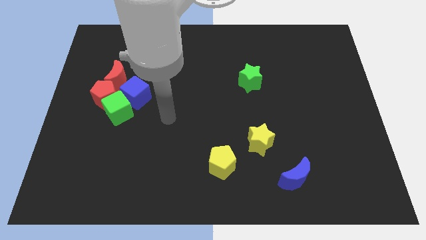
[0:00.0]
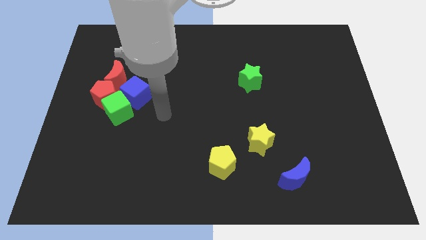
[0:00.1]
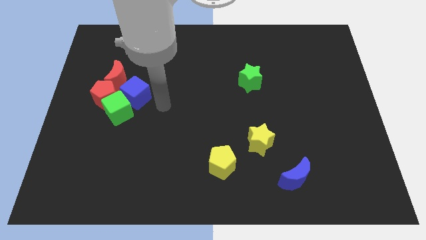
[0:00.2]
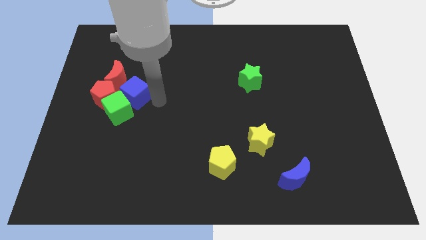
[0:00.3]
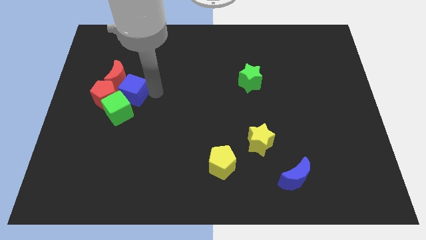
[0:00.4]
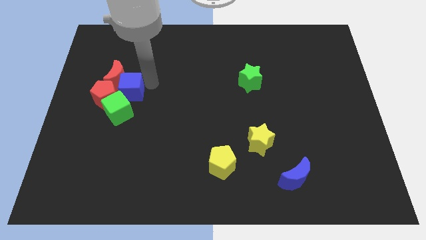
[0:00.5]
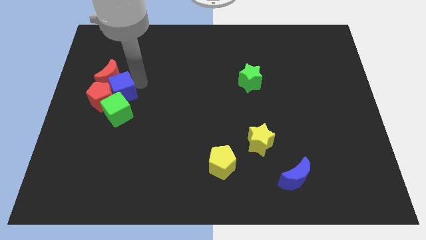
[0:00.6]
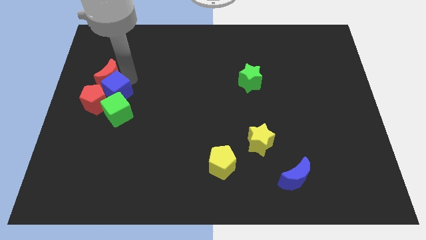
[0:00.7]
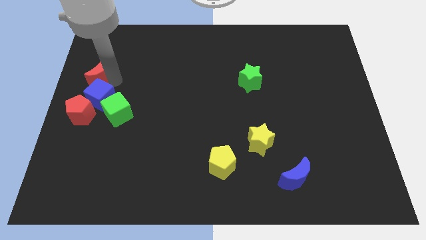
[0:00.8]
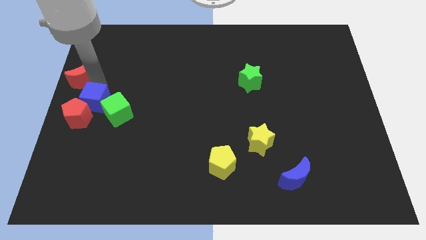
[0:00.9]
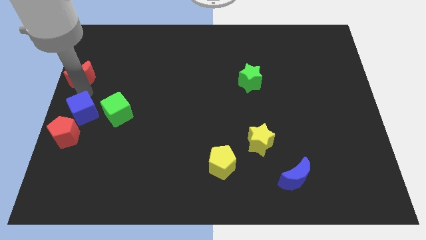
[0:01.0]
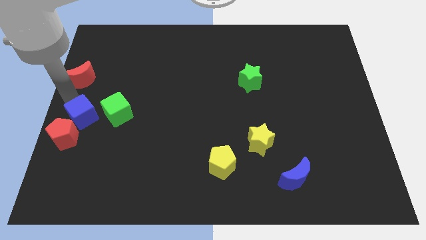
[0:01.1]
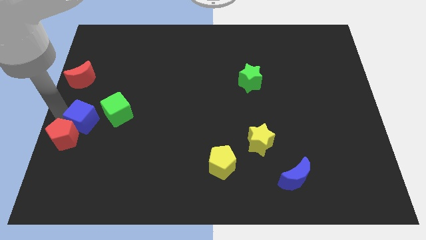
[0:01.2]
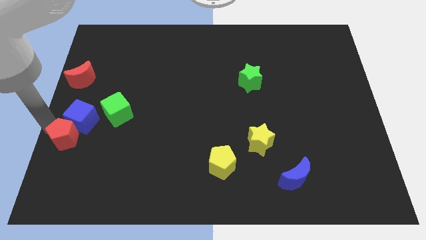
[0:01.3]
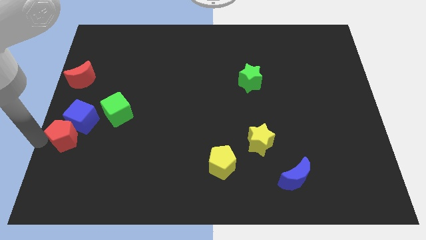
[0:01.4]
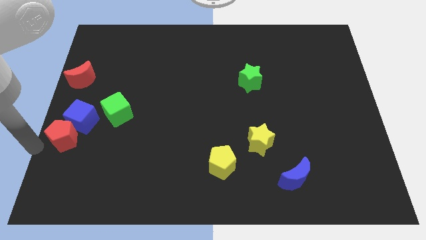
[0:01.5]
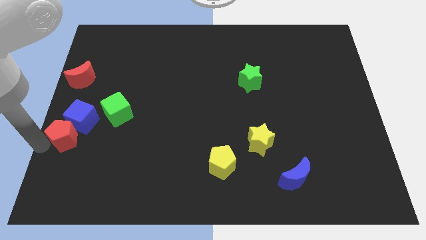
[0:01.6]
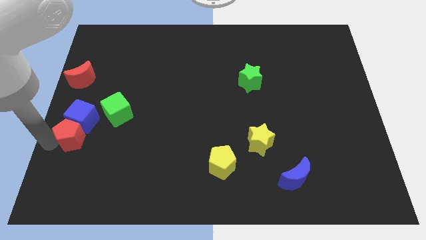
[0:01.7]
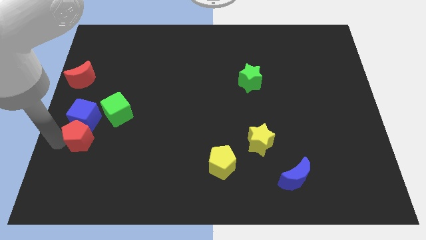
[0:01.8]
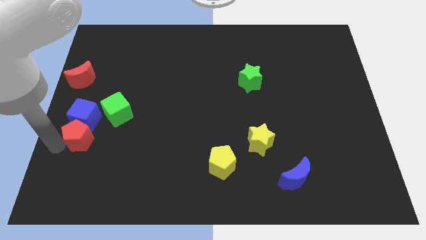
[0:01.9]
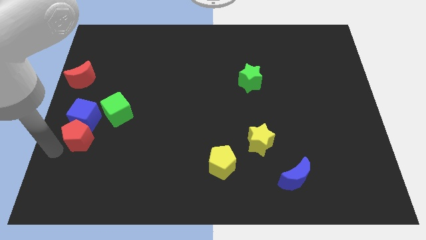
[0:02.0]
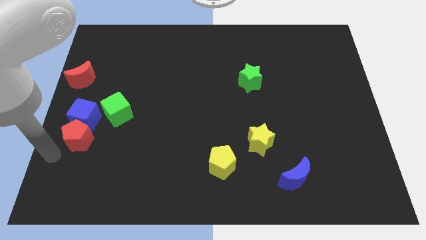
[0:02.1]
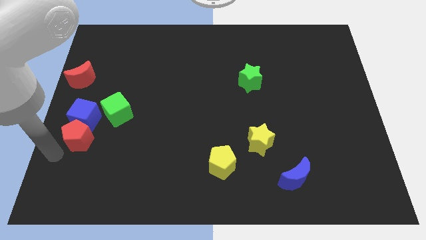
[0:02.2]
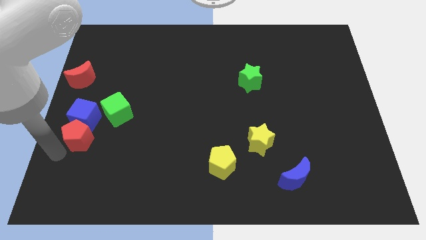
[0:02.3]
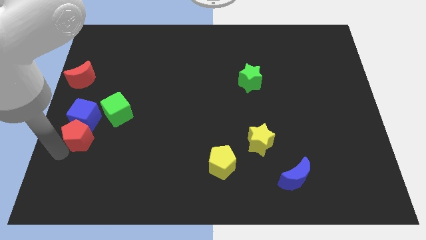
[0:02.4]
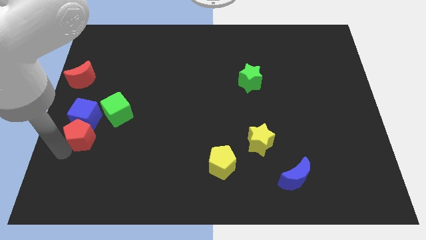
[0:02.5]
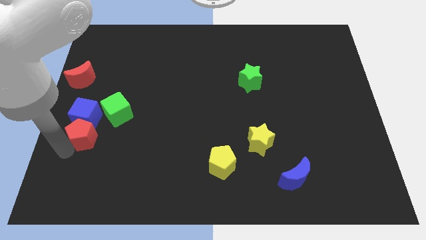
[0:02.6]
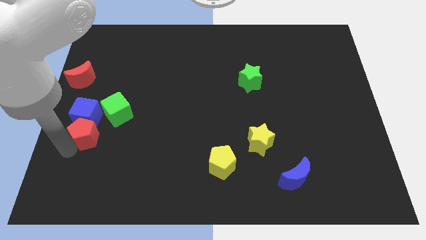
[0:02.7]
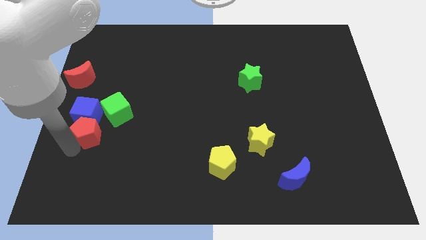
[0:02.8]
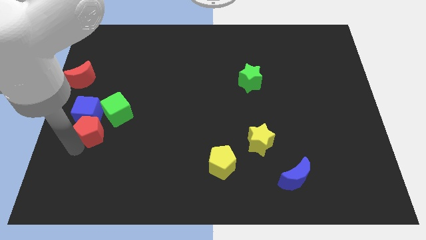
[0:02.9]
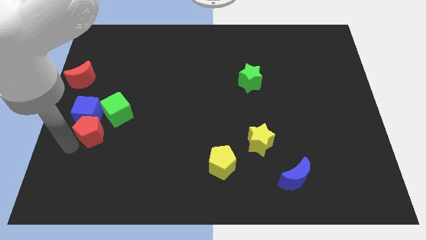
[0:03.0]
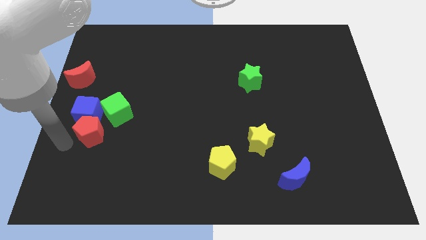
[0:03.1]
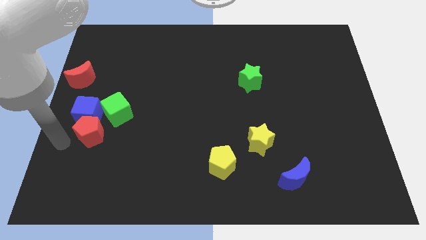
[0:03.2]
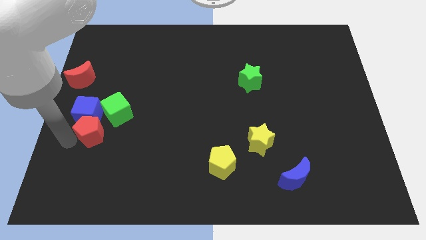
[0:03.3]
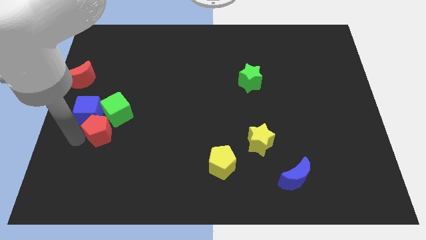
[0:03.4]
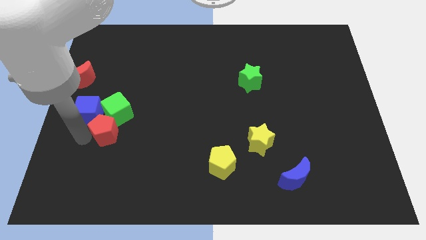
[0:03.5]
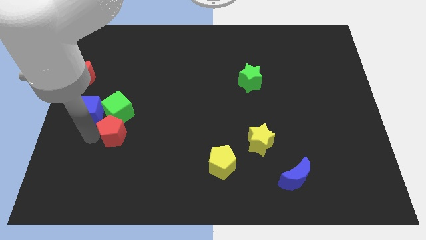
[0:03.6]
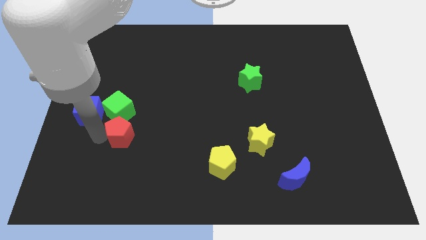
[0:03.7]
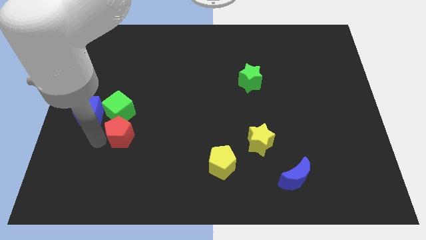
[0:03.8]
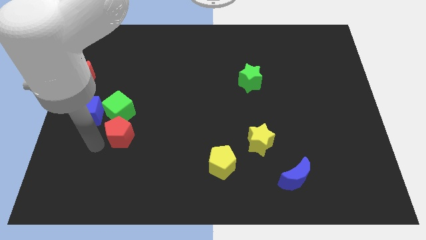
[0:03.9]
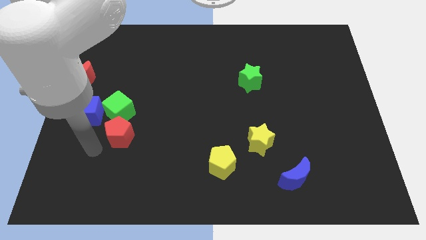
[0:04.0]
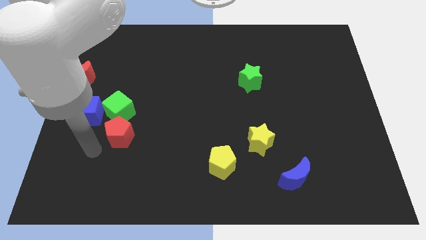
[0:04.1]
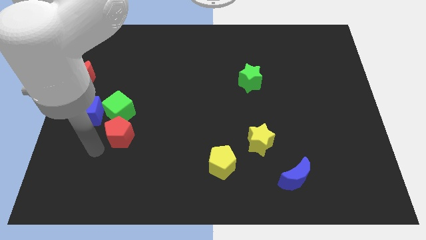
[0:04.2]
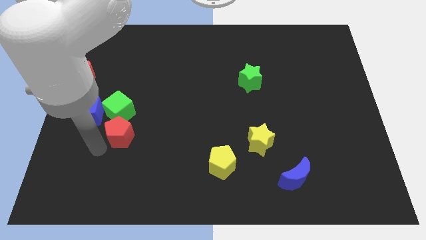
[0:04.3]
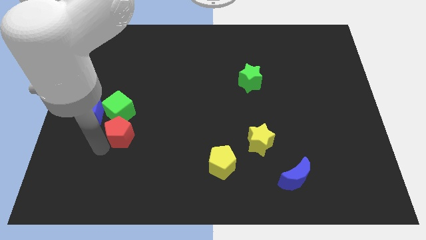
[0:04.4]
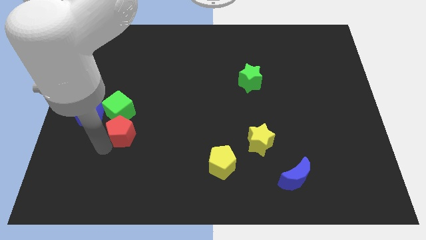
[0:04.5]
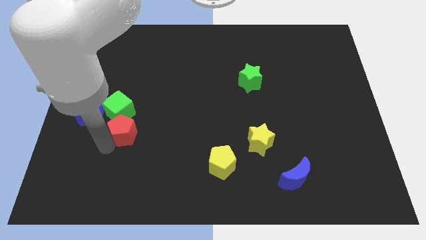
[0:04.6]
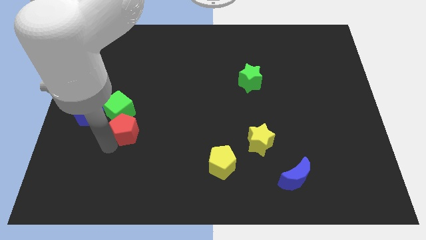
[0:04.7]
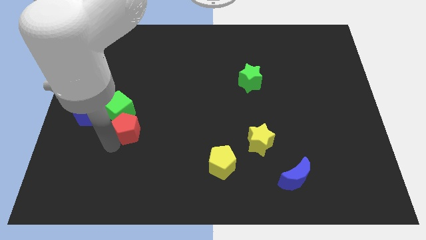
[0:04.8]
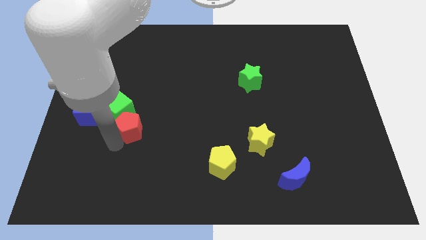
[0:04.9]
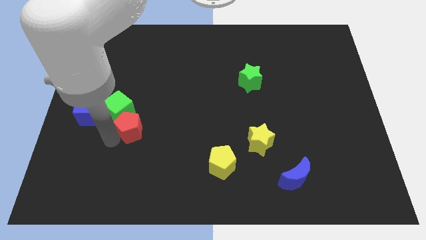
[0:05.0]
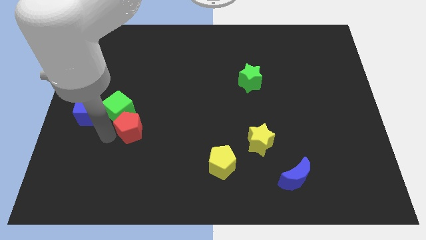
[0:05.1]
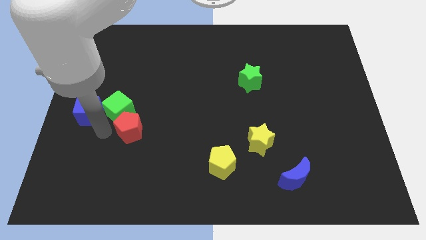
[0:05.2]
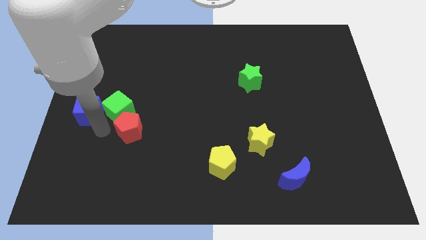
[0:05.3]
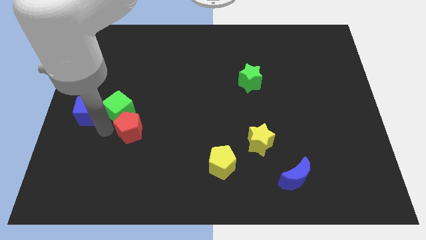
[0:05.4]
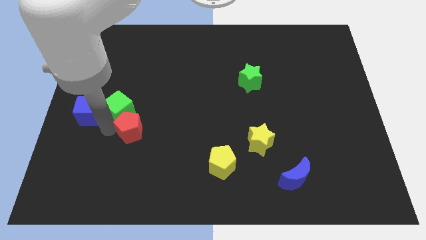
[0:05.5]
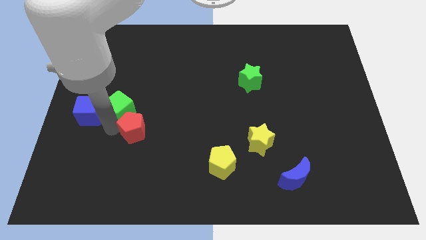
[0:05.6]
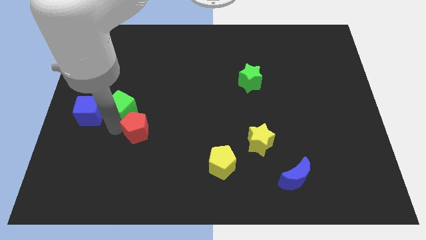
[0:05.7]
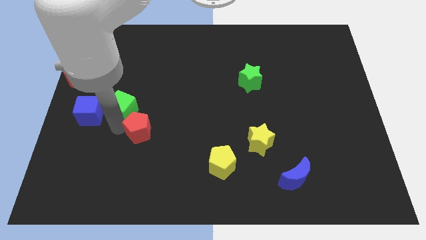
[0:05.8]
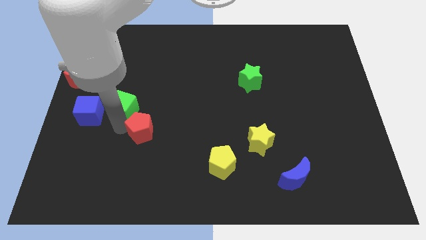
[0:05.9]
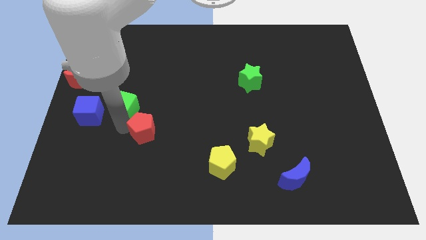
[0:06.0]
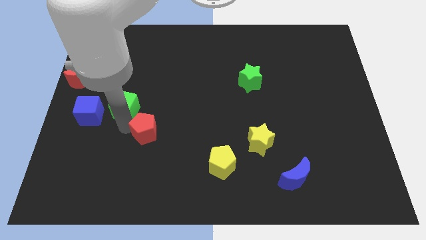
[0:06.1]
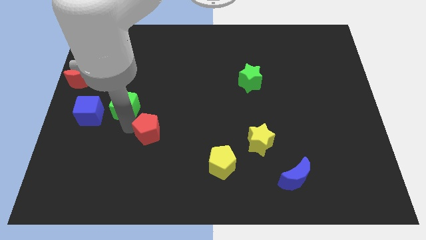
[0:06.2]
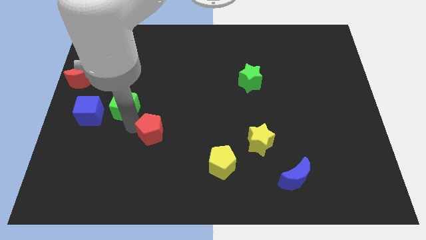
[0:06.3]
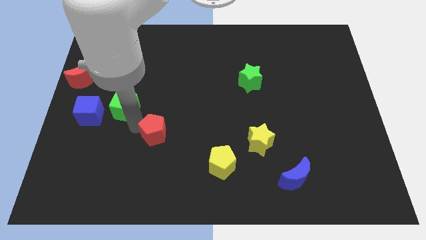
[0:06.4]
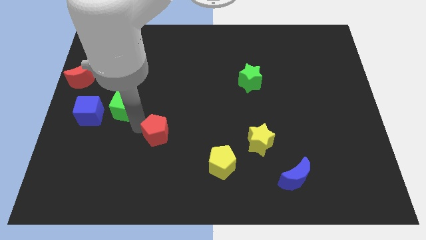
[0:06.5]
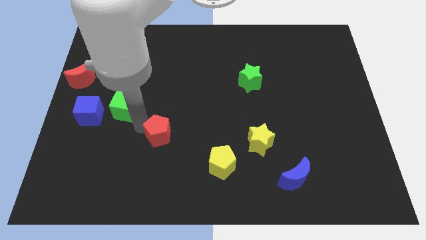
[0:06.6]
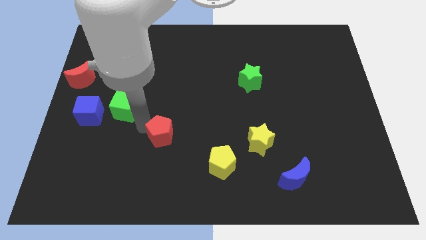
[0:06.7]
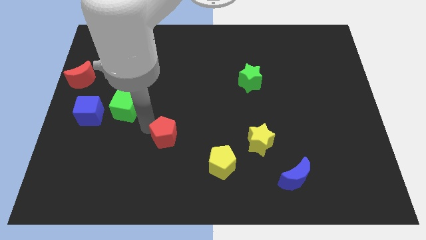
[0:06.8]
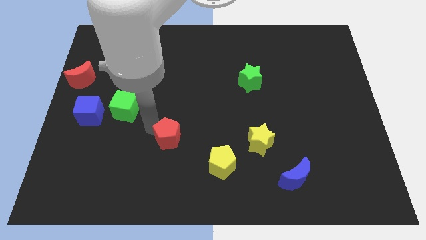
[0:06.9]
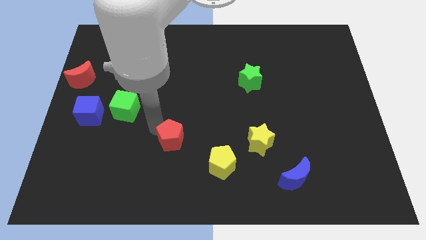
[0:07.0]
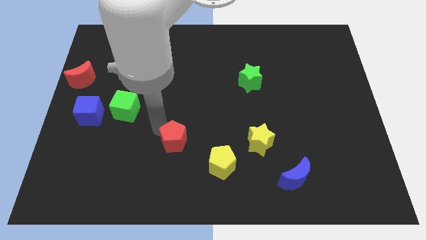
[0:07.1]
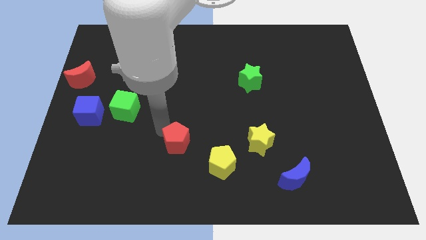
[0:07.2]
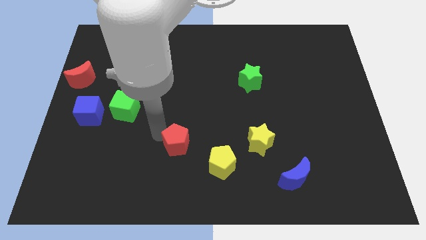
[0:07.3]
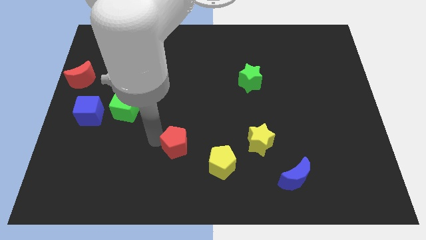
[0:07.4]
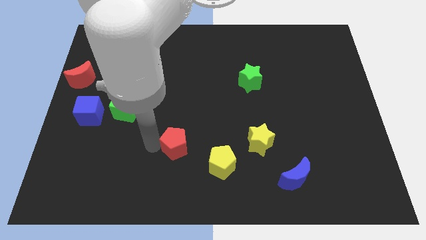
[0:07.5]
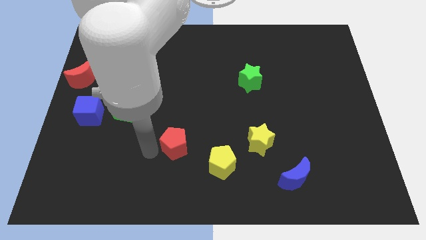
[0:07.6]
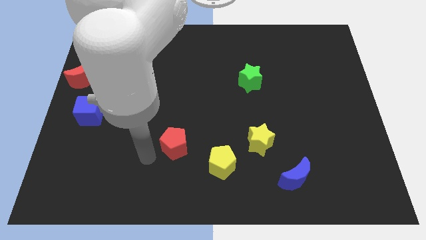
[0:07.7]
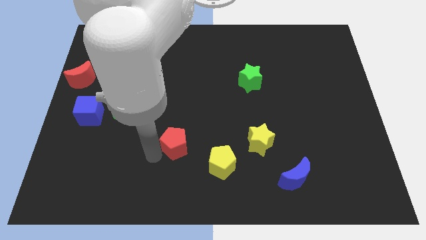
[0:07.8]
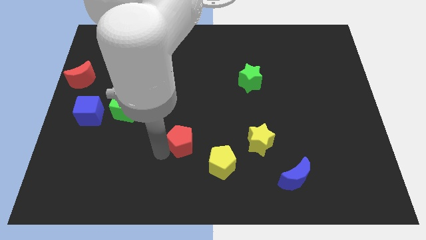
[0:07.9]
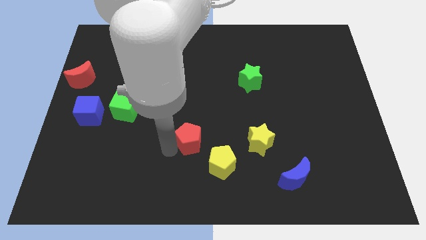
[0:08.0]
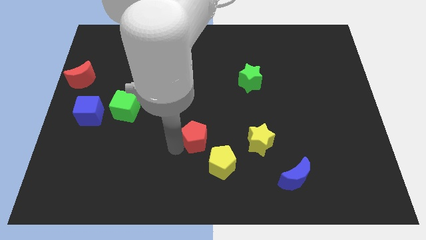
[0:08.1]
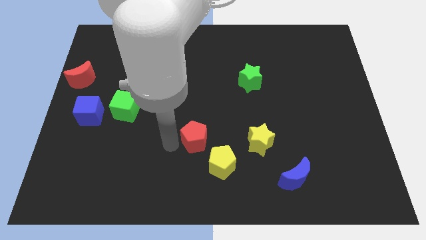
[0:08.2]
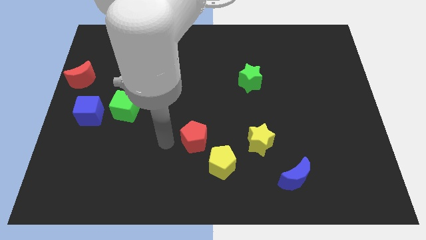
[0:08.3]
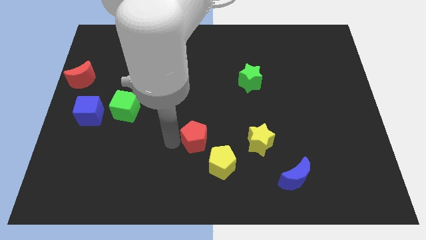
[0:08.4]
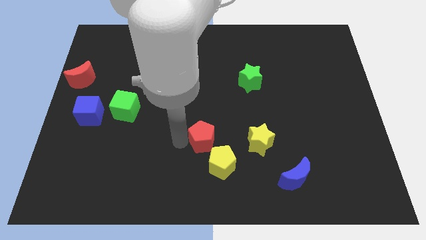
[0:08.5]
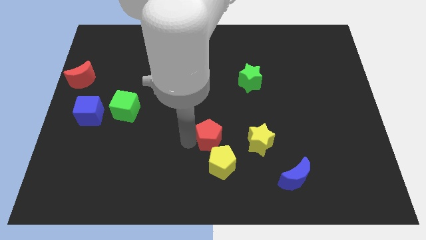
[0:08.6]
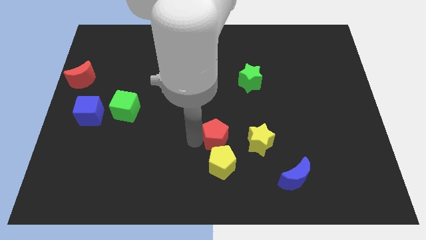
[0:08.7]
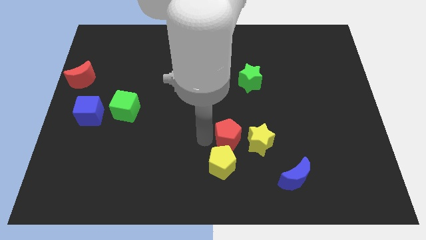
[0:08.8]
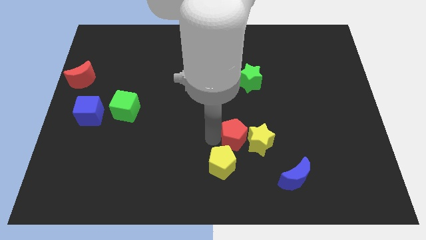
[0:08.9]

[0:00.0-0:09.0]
slide the red pentagon to the yellow star
